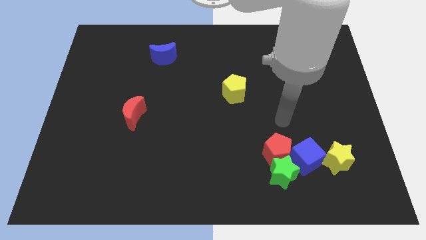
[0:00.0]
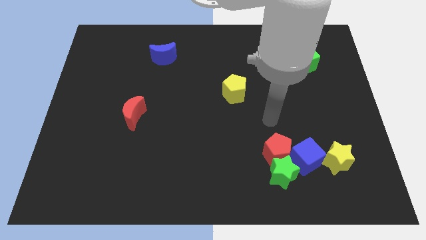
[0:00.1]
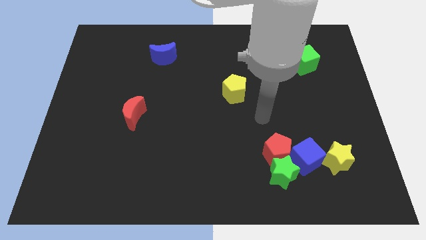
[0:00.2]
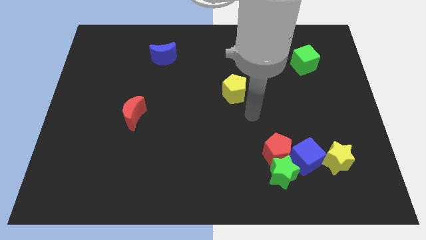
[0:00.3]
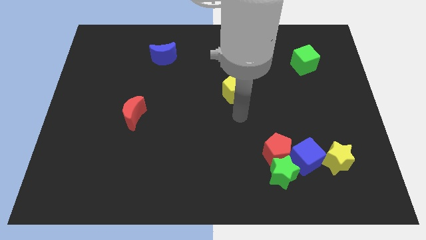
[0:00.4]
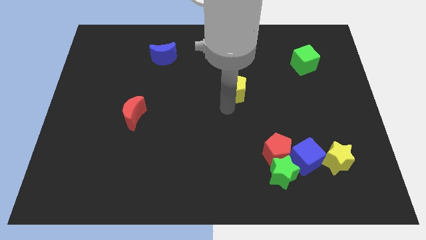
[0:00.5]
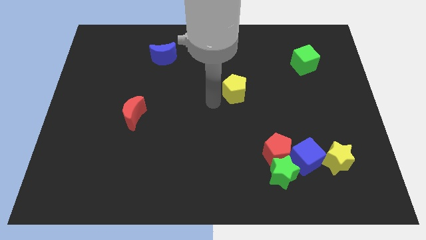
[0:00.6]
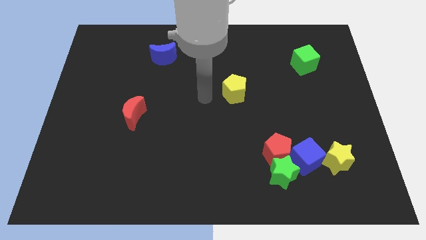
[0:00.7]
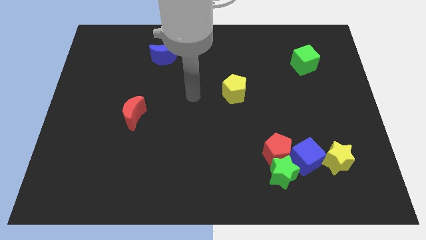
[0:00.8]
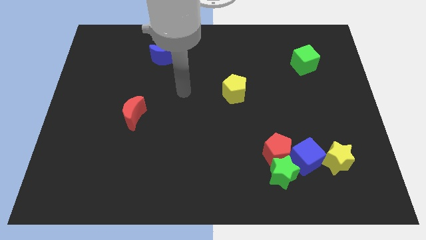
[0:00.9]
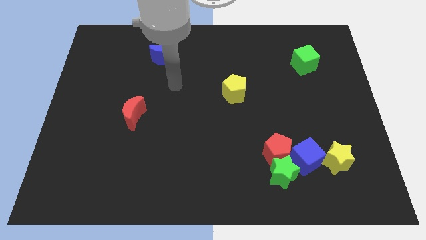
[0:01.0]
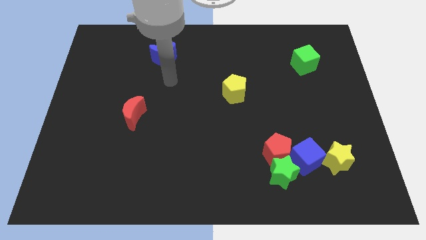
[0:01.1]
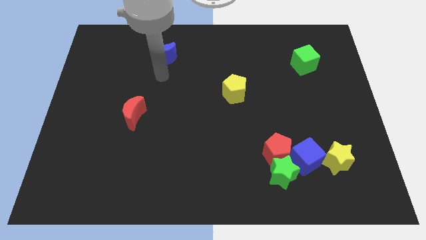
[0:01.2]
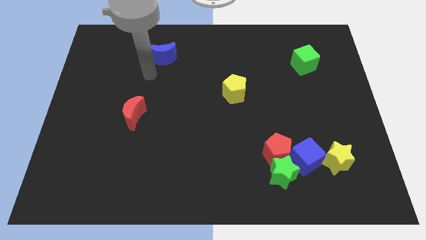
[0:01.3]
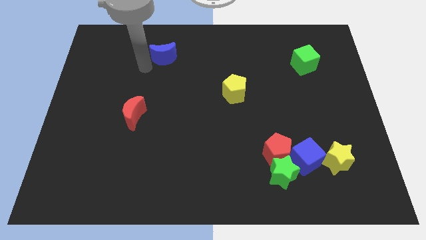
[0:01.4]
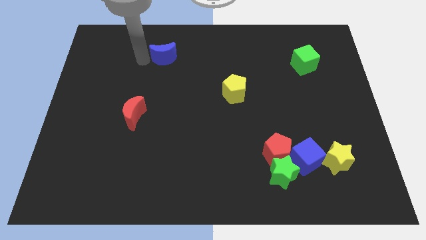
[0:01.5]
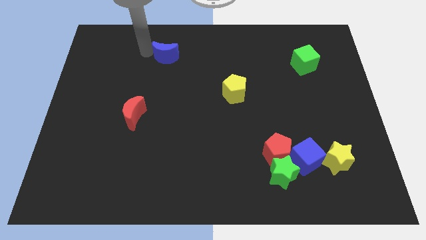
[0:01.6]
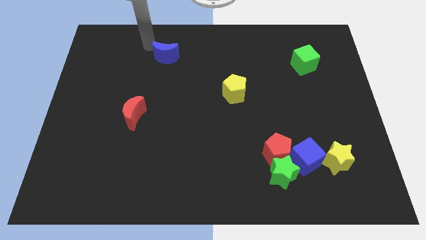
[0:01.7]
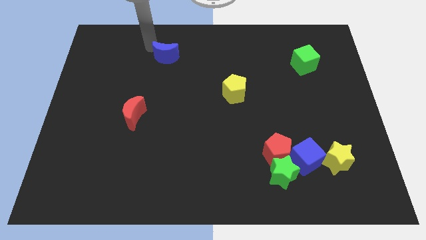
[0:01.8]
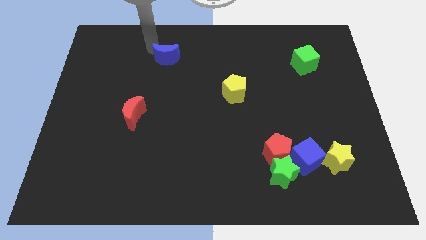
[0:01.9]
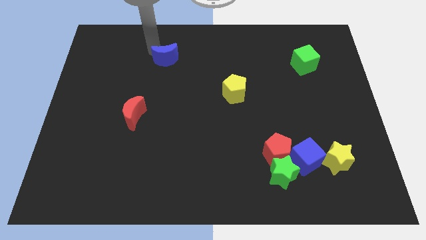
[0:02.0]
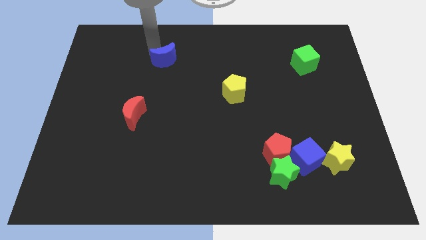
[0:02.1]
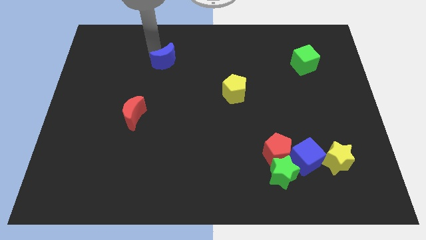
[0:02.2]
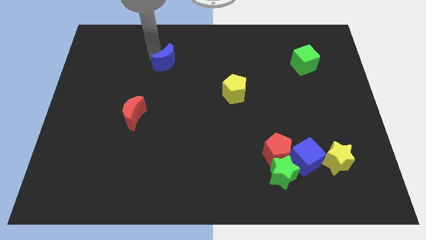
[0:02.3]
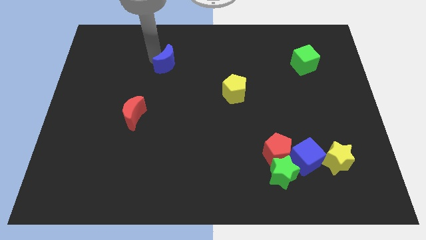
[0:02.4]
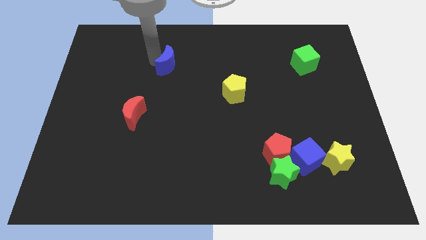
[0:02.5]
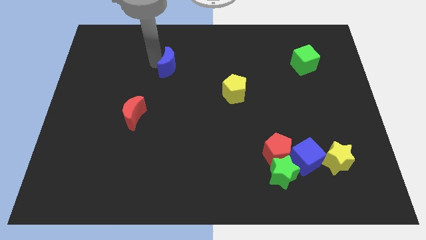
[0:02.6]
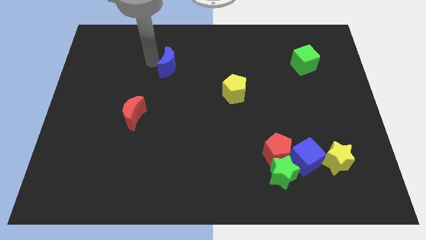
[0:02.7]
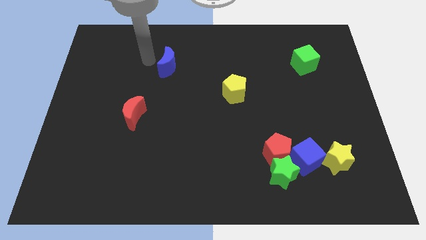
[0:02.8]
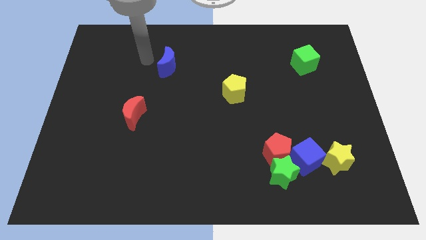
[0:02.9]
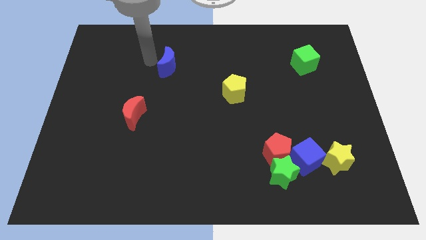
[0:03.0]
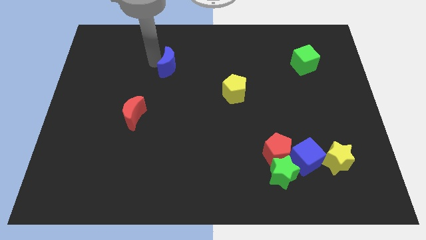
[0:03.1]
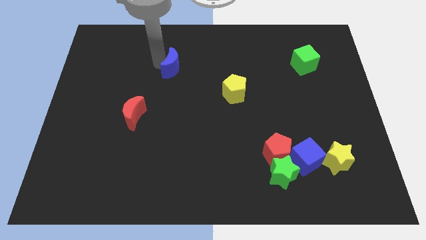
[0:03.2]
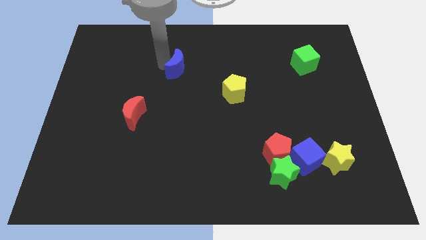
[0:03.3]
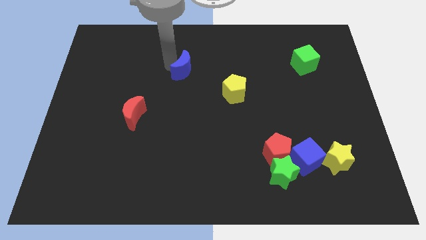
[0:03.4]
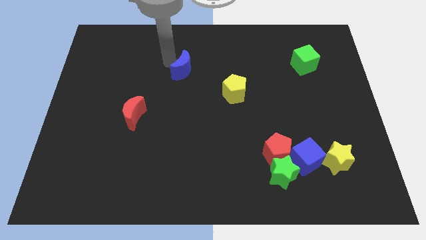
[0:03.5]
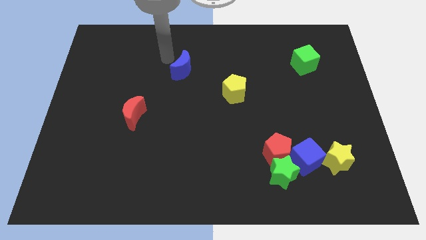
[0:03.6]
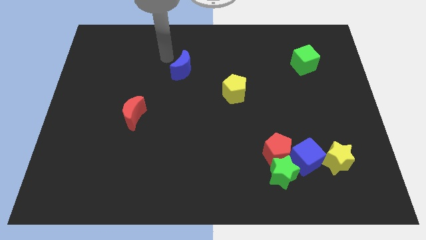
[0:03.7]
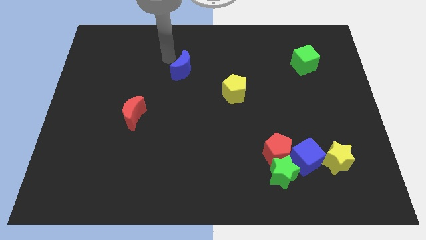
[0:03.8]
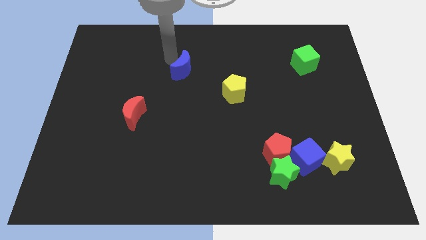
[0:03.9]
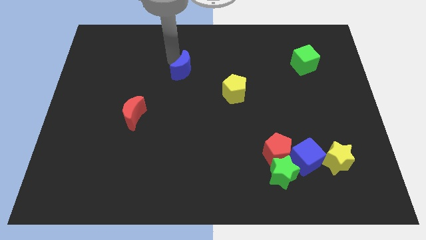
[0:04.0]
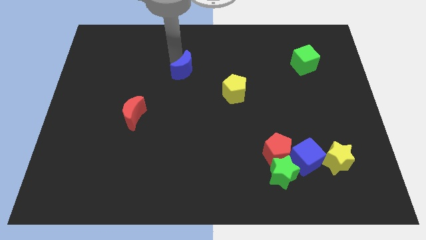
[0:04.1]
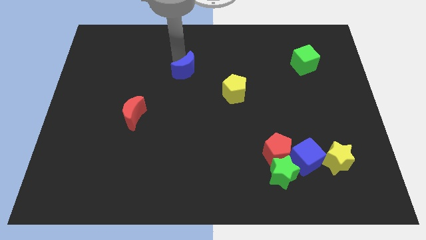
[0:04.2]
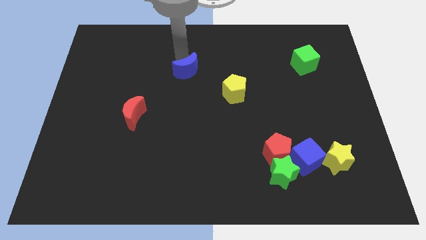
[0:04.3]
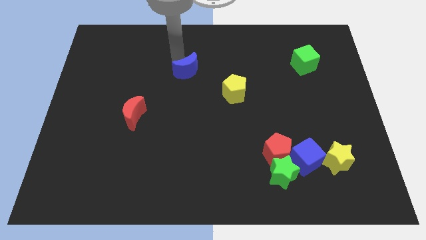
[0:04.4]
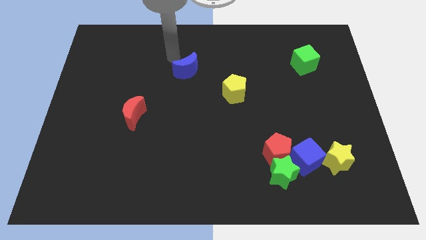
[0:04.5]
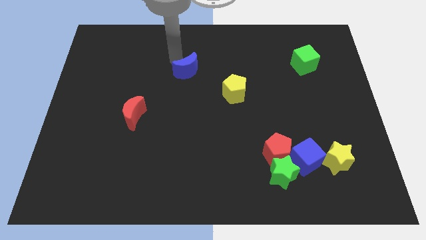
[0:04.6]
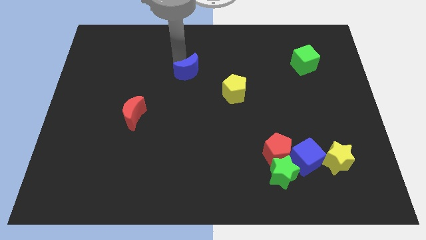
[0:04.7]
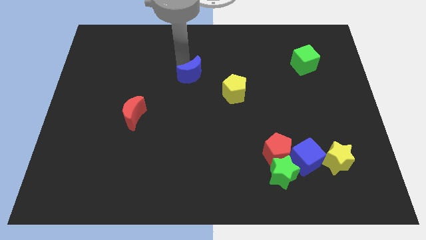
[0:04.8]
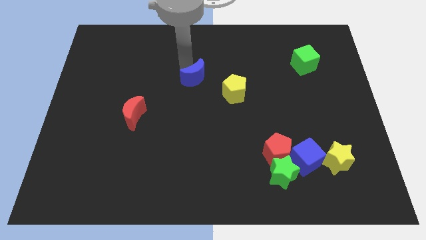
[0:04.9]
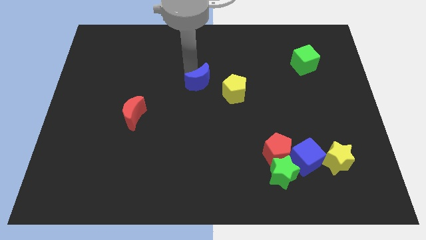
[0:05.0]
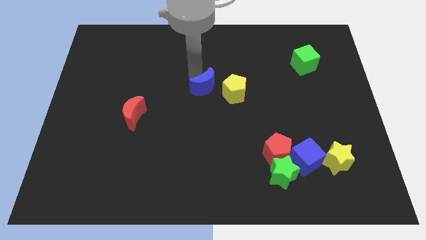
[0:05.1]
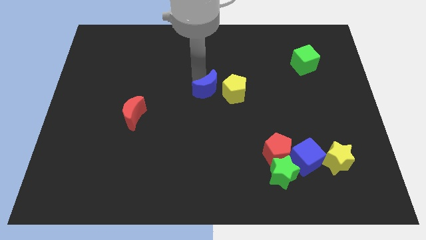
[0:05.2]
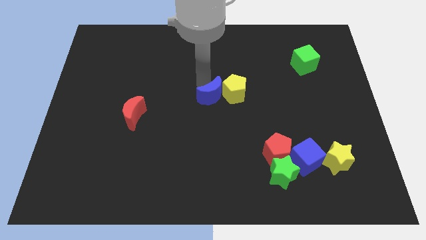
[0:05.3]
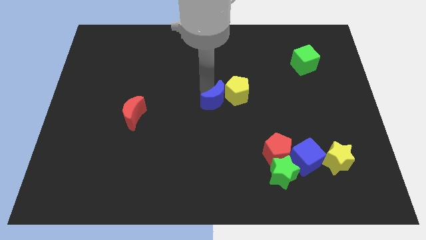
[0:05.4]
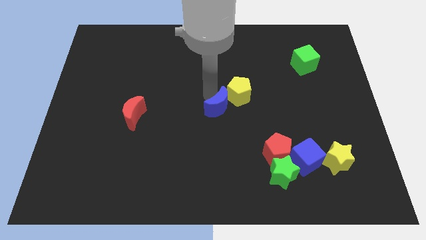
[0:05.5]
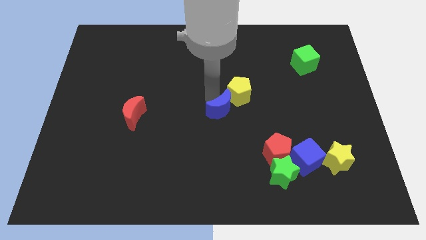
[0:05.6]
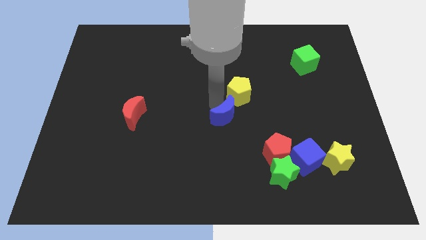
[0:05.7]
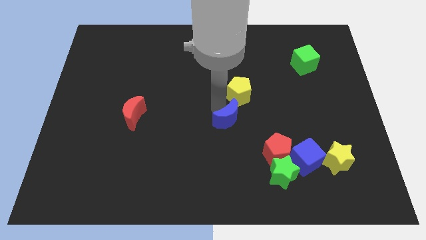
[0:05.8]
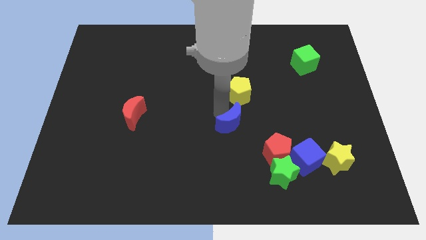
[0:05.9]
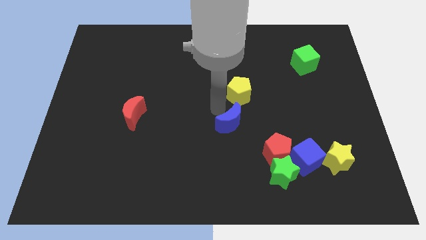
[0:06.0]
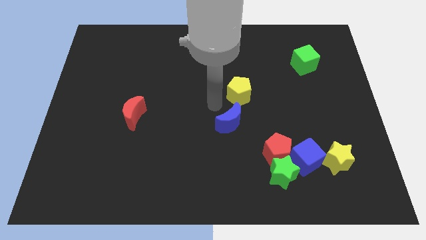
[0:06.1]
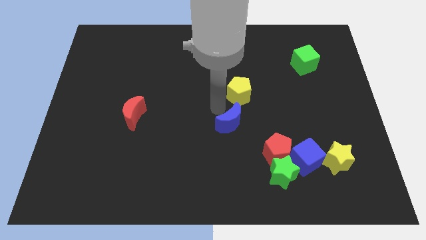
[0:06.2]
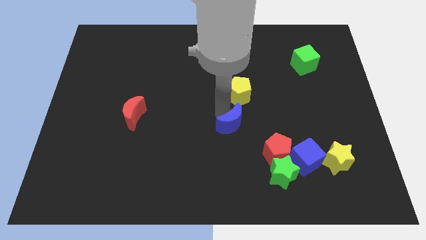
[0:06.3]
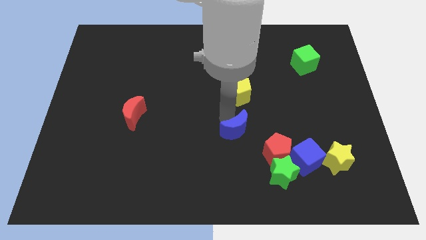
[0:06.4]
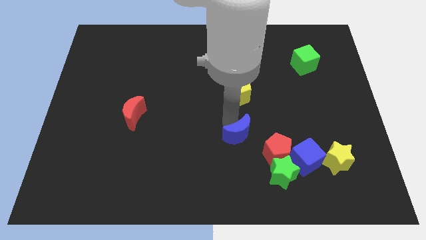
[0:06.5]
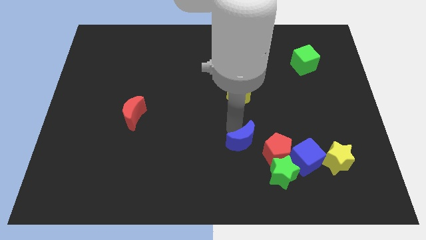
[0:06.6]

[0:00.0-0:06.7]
slide the blue moon to the top left side of the green star

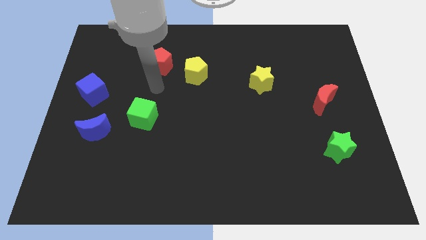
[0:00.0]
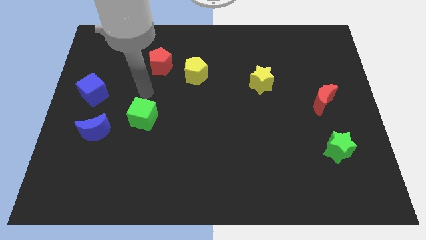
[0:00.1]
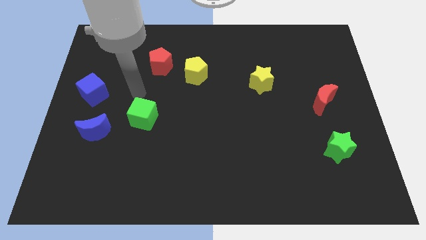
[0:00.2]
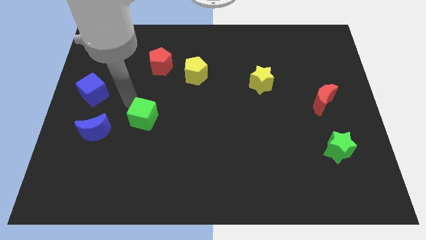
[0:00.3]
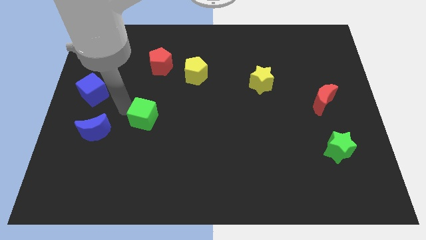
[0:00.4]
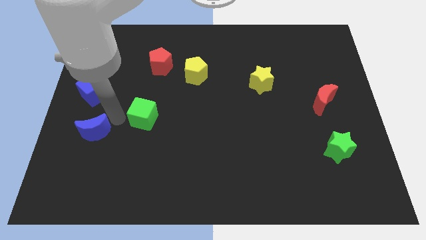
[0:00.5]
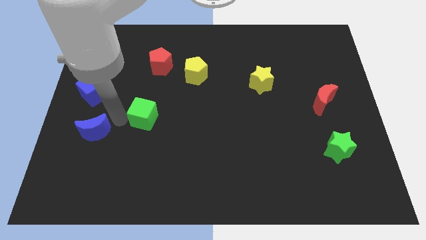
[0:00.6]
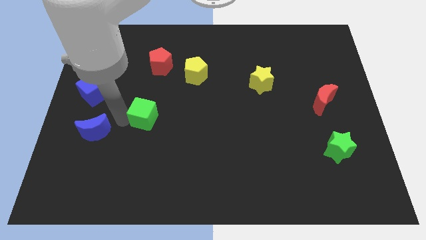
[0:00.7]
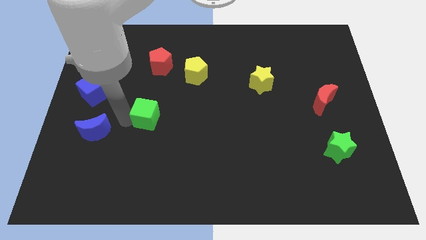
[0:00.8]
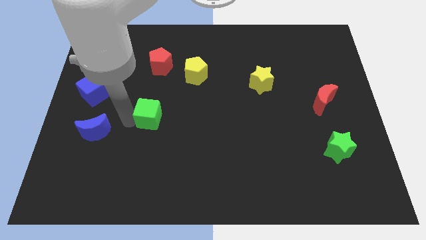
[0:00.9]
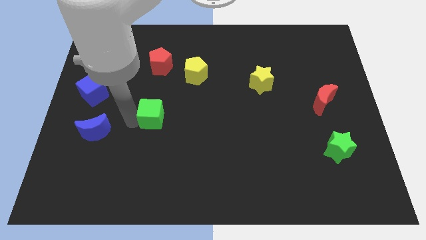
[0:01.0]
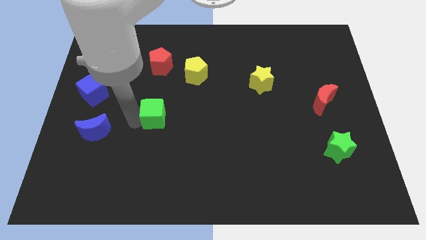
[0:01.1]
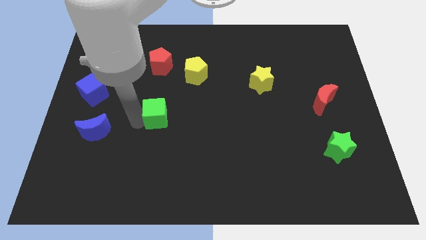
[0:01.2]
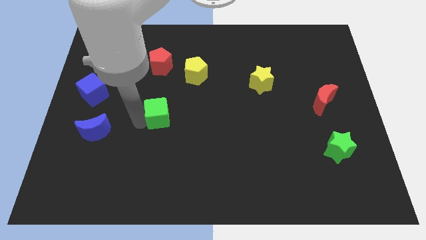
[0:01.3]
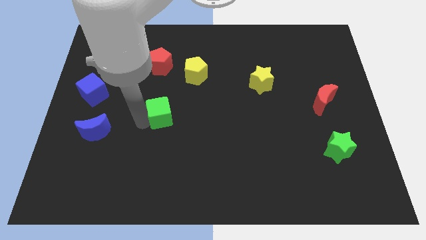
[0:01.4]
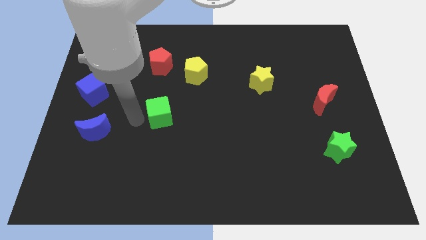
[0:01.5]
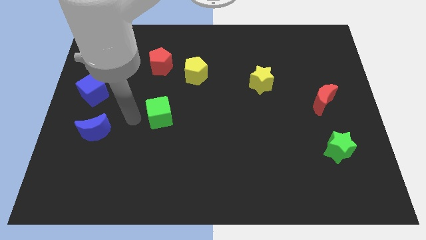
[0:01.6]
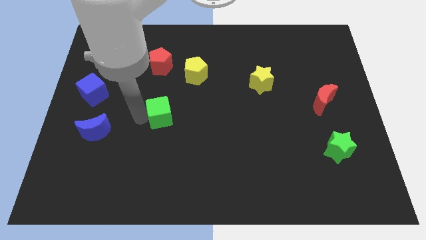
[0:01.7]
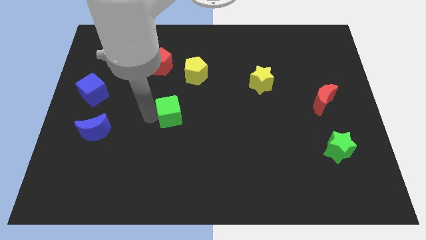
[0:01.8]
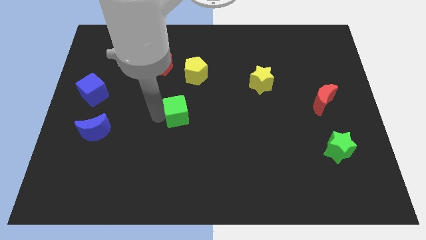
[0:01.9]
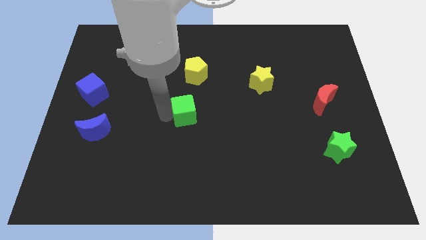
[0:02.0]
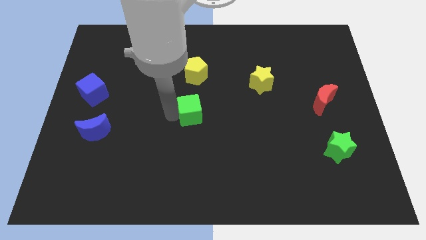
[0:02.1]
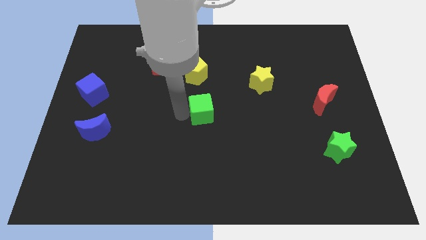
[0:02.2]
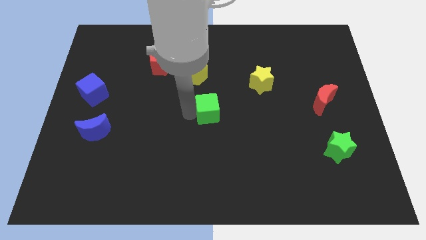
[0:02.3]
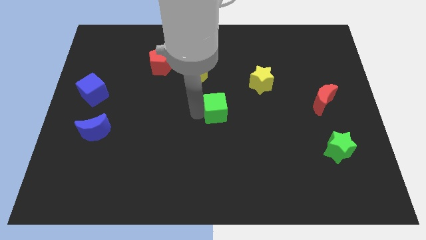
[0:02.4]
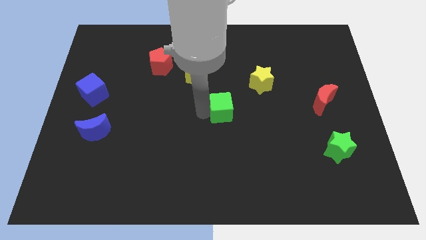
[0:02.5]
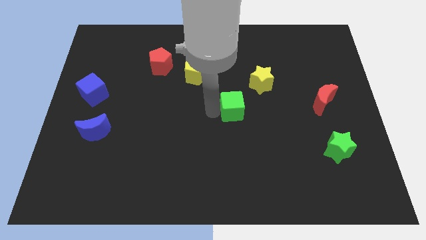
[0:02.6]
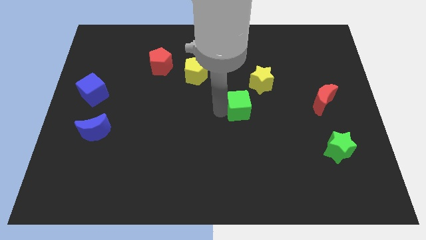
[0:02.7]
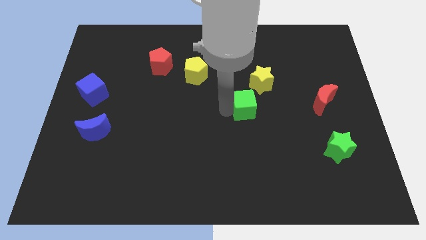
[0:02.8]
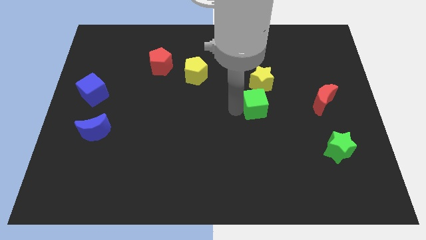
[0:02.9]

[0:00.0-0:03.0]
put the green cube to the left side of the red moon
